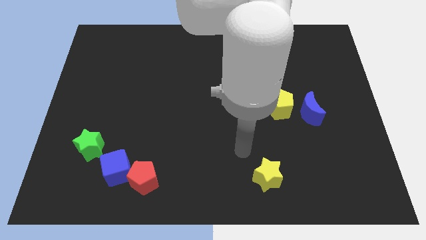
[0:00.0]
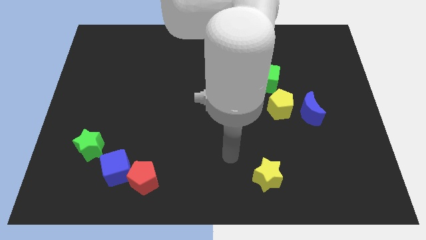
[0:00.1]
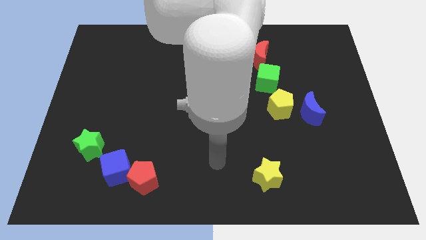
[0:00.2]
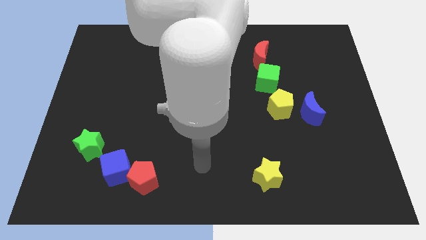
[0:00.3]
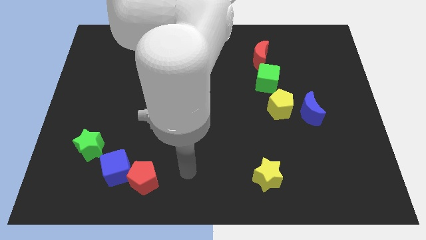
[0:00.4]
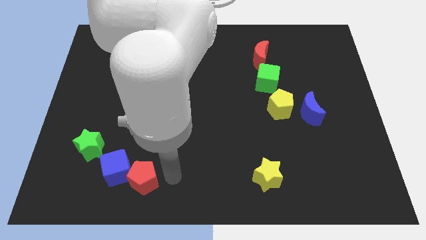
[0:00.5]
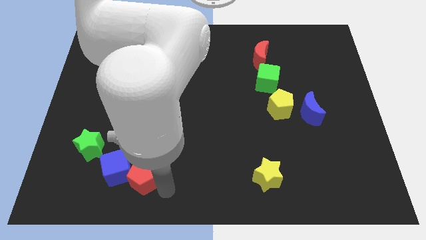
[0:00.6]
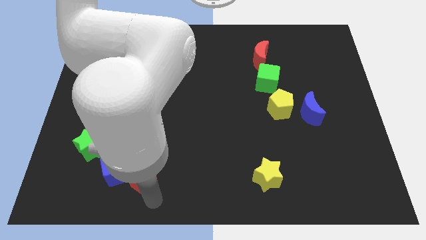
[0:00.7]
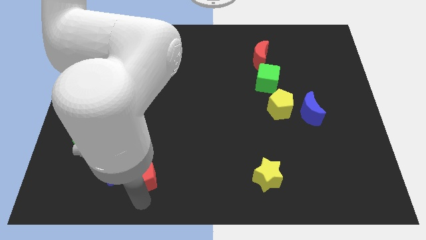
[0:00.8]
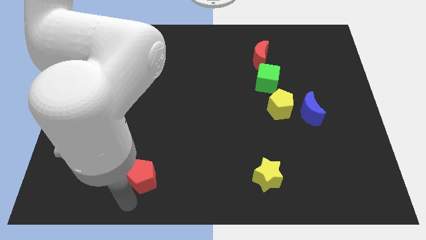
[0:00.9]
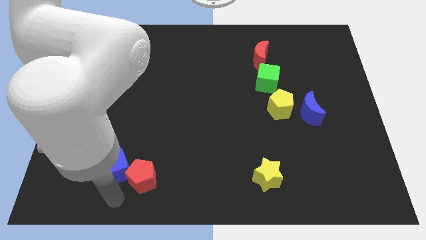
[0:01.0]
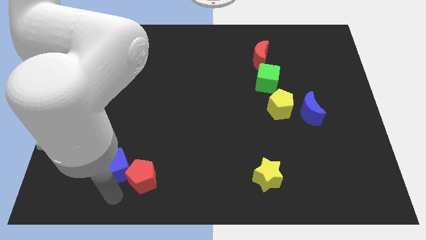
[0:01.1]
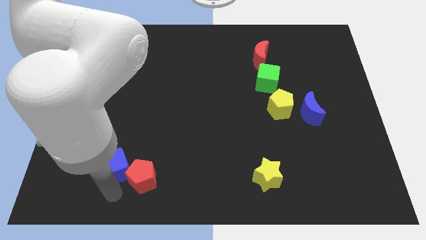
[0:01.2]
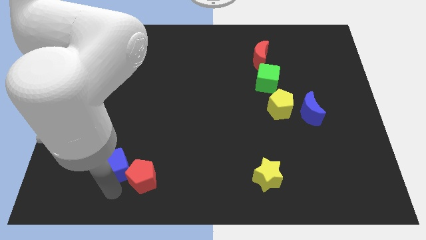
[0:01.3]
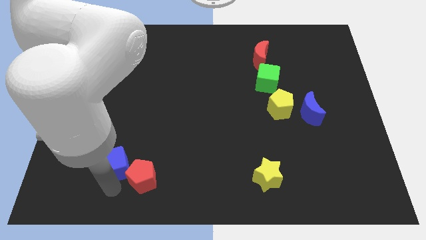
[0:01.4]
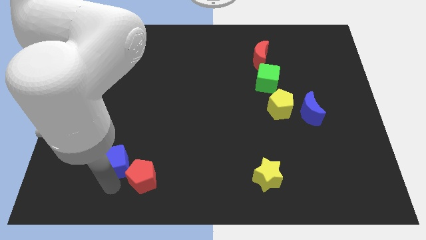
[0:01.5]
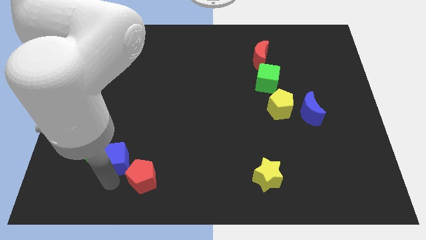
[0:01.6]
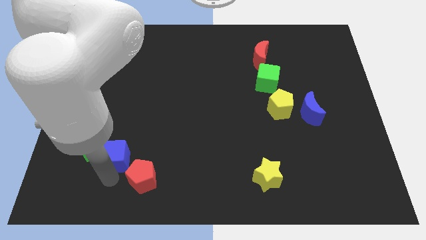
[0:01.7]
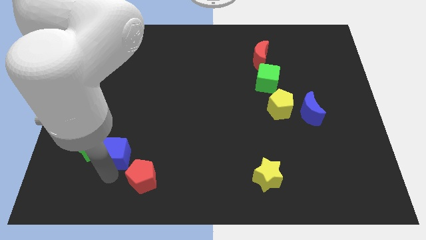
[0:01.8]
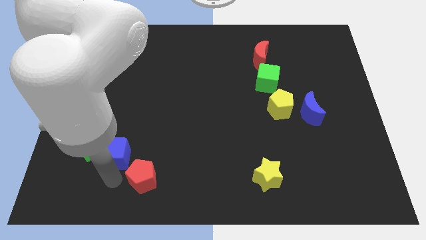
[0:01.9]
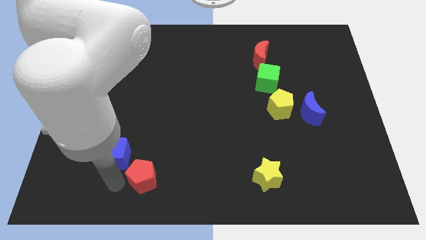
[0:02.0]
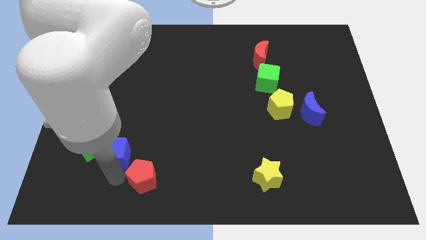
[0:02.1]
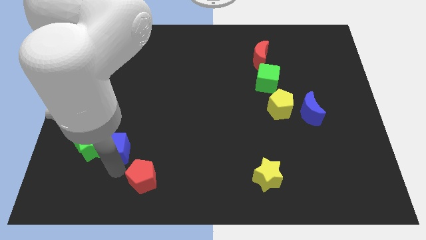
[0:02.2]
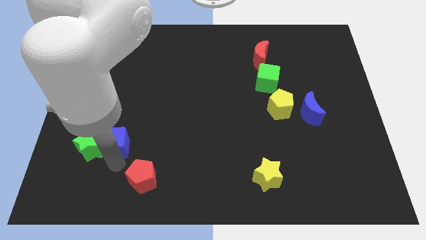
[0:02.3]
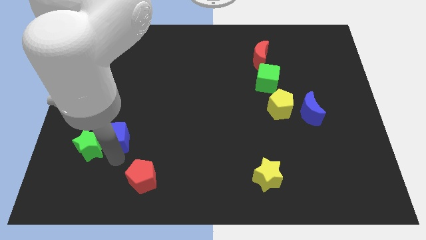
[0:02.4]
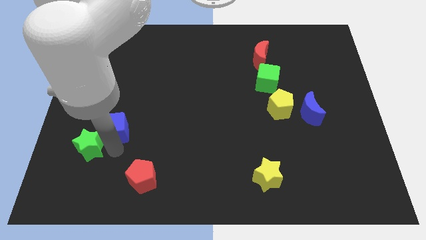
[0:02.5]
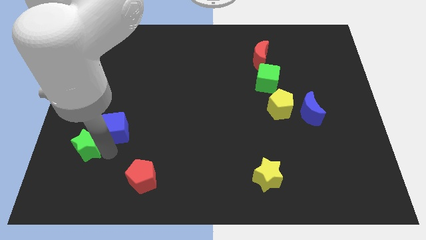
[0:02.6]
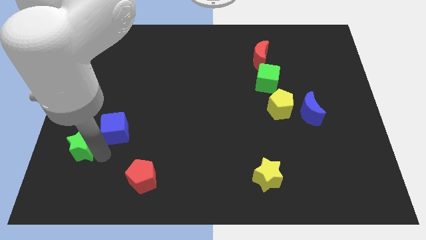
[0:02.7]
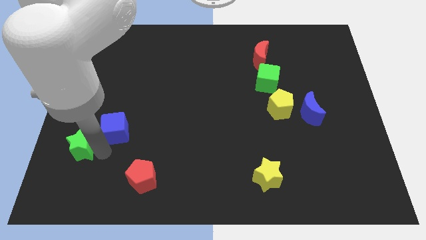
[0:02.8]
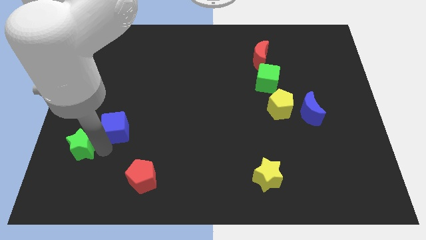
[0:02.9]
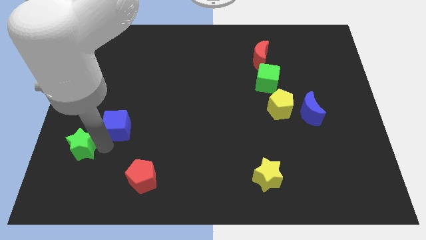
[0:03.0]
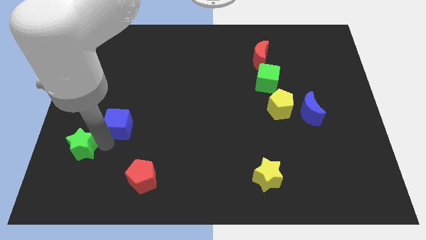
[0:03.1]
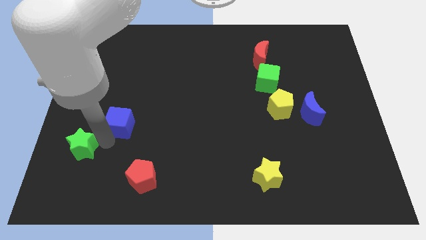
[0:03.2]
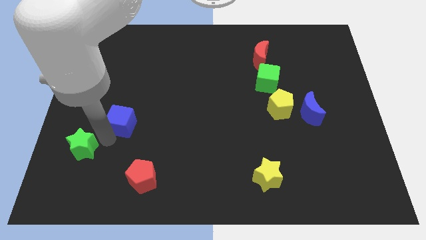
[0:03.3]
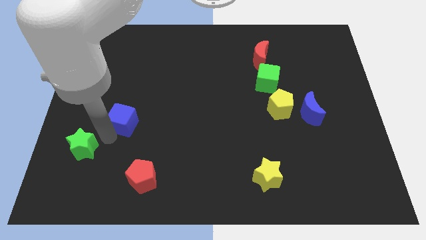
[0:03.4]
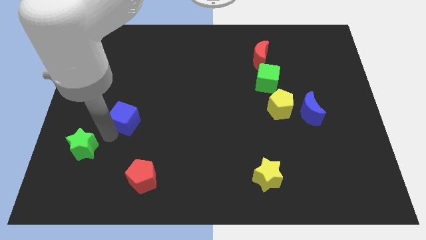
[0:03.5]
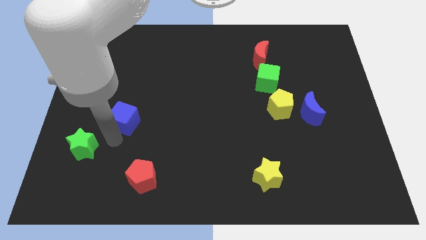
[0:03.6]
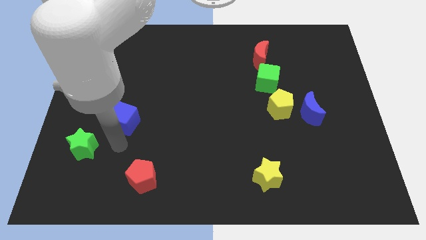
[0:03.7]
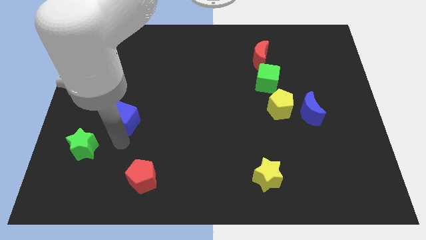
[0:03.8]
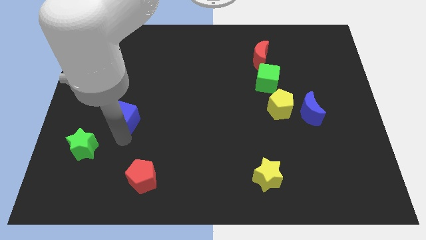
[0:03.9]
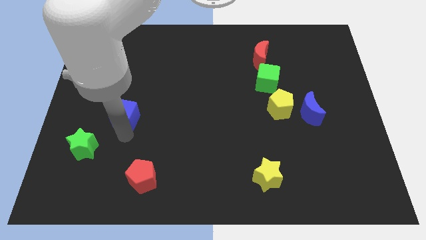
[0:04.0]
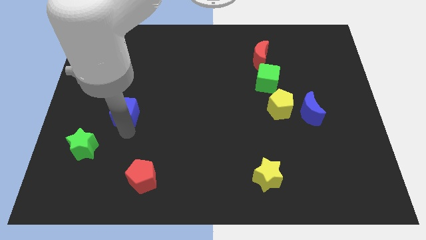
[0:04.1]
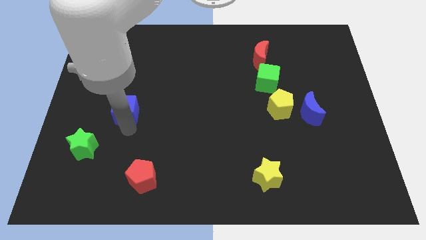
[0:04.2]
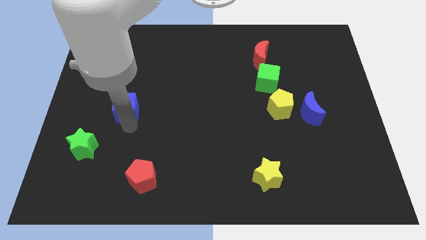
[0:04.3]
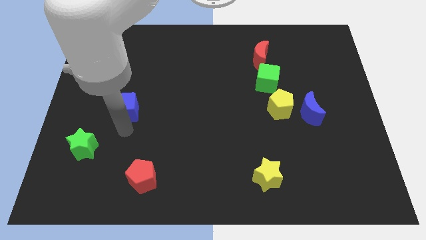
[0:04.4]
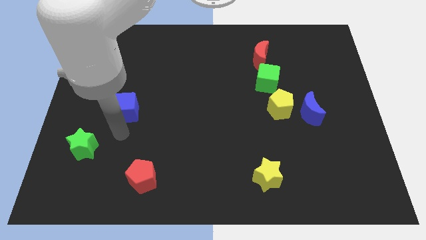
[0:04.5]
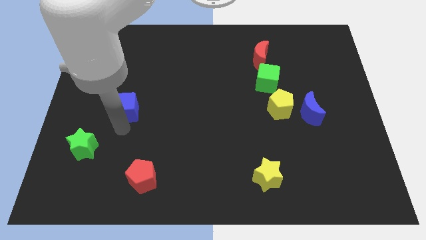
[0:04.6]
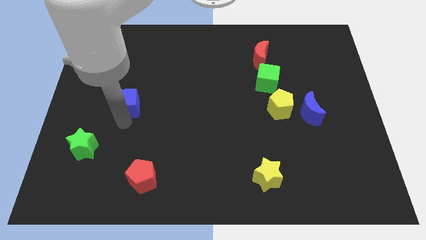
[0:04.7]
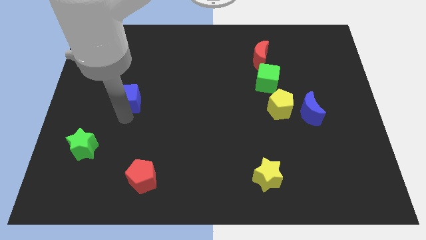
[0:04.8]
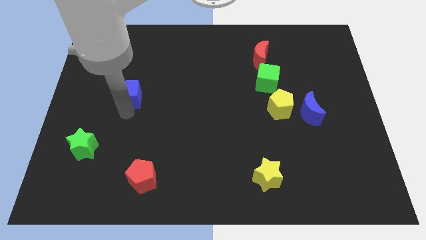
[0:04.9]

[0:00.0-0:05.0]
push the blue cube up

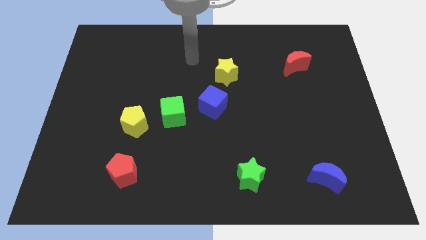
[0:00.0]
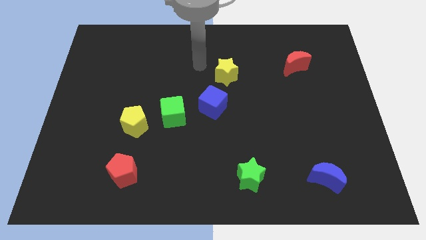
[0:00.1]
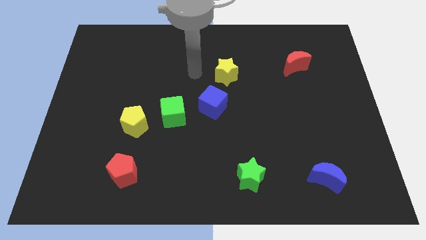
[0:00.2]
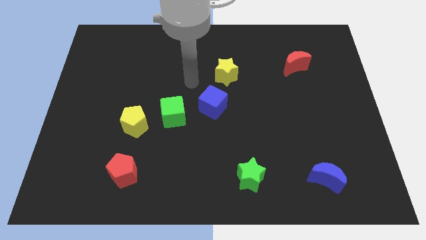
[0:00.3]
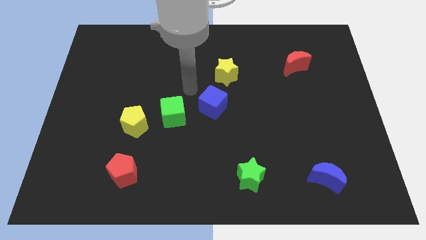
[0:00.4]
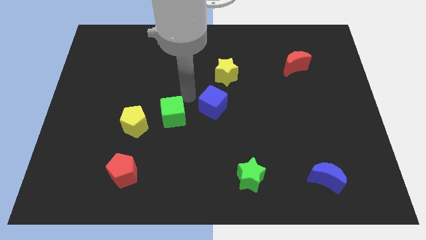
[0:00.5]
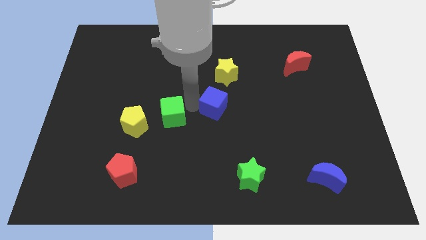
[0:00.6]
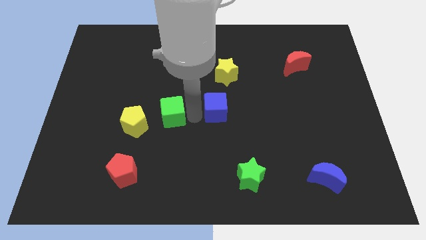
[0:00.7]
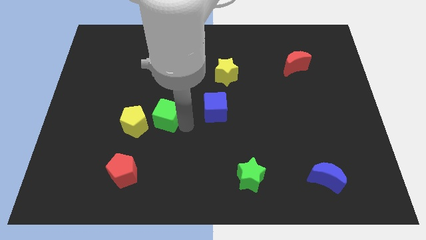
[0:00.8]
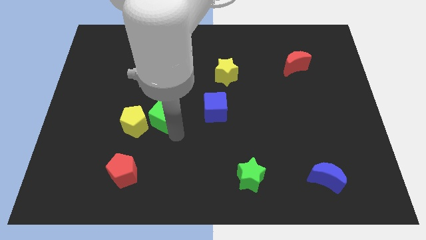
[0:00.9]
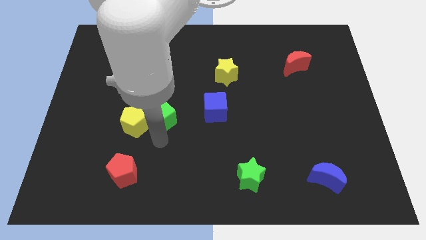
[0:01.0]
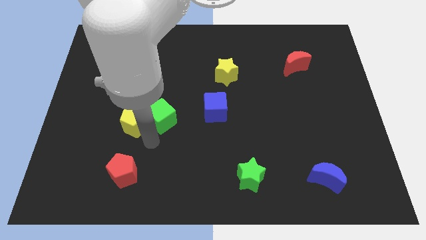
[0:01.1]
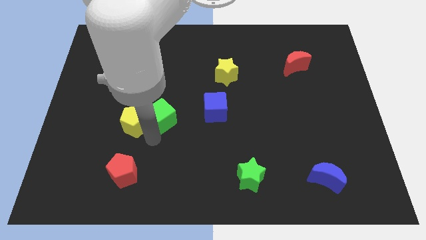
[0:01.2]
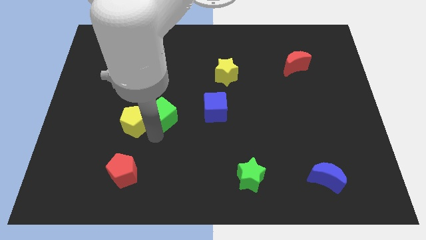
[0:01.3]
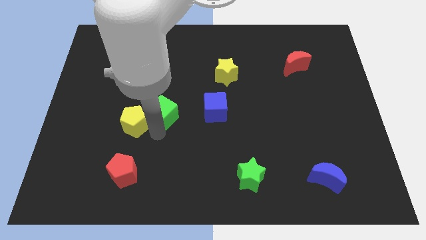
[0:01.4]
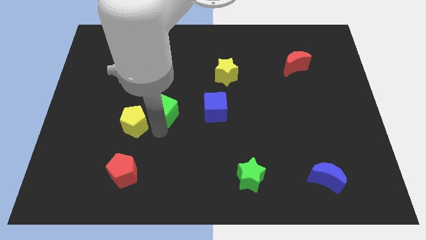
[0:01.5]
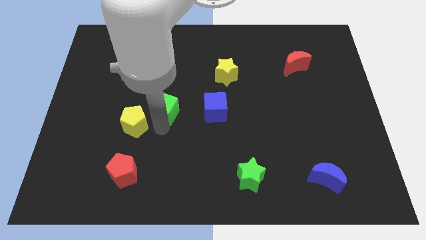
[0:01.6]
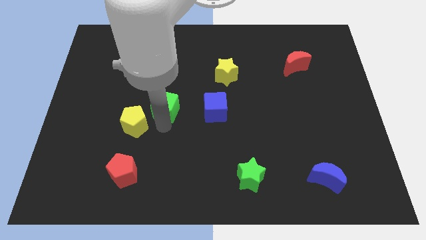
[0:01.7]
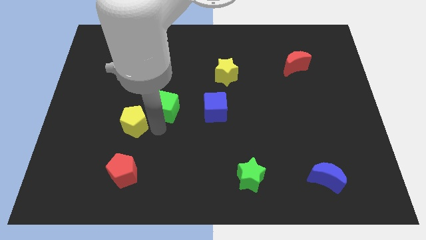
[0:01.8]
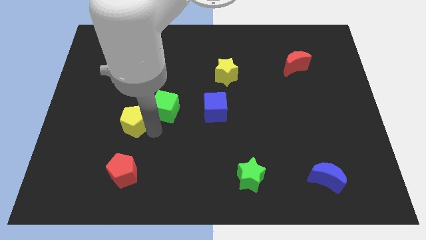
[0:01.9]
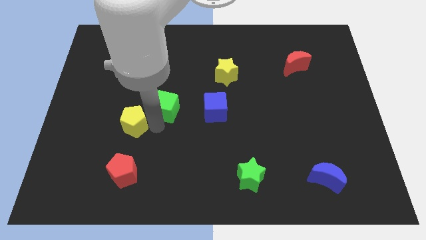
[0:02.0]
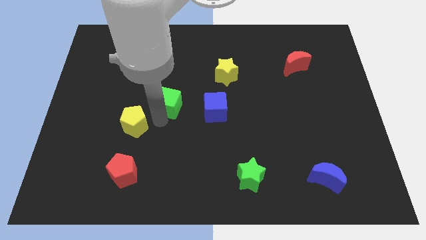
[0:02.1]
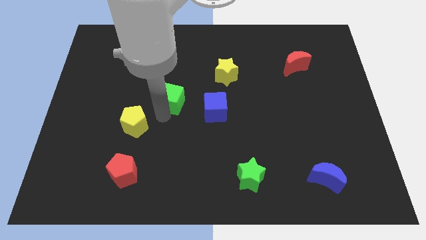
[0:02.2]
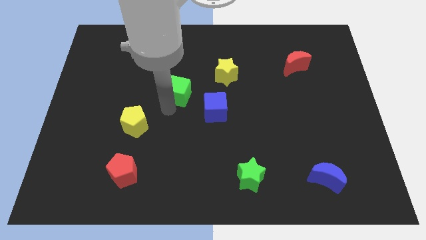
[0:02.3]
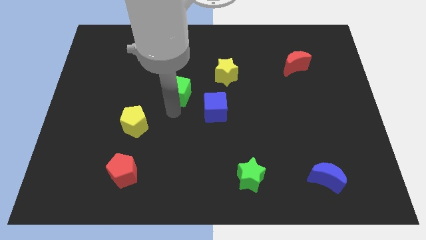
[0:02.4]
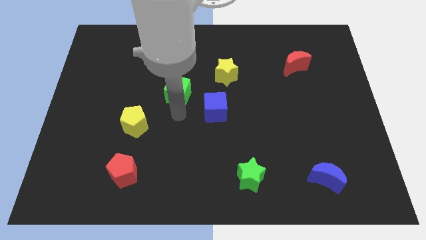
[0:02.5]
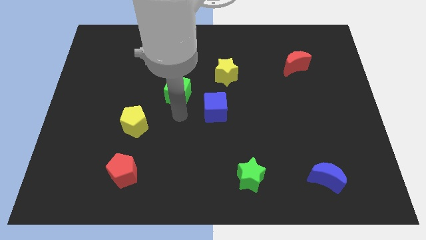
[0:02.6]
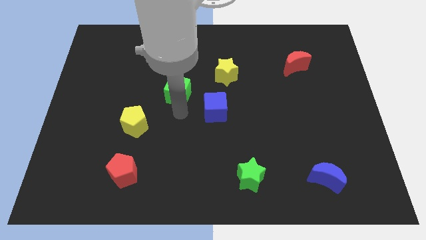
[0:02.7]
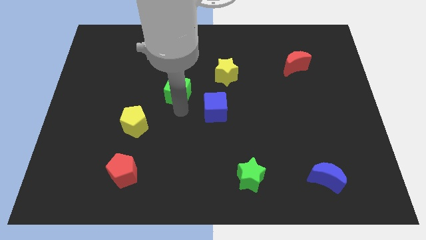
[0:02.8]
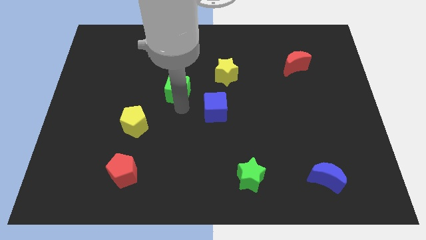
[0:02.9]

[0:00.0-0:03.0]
slightly slide the green cube up

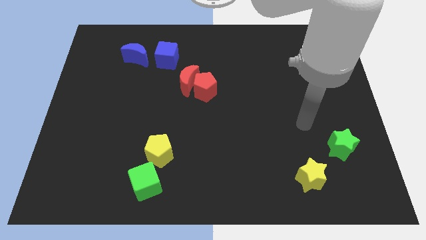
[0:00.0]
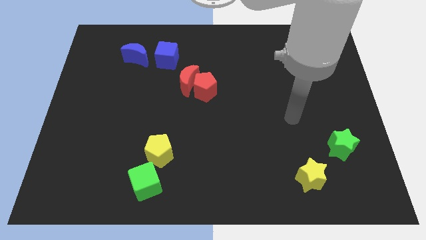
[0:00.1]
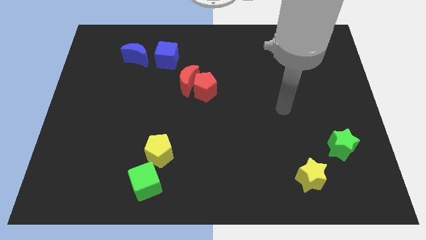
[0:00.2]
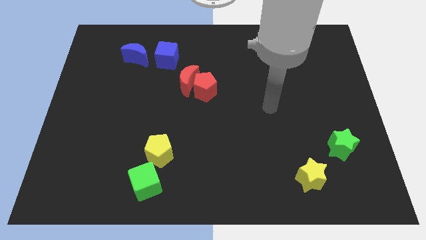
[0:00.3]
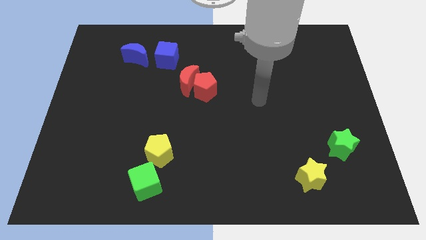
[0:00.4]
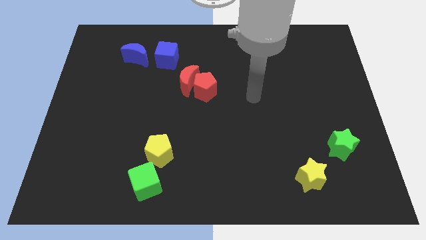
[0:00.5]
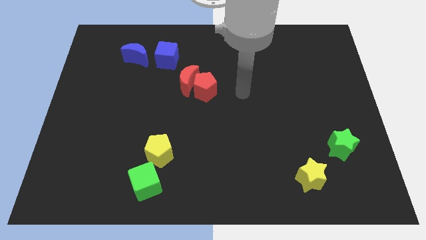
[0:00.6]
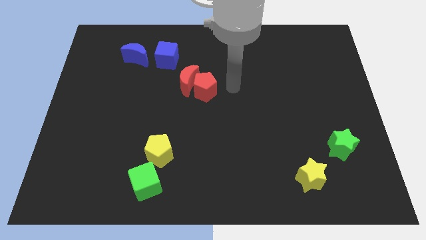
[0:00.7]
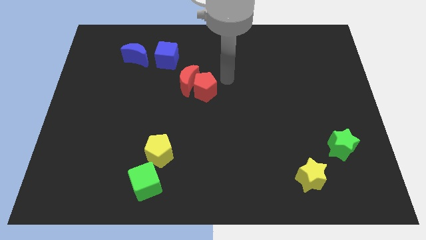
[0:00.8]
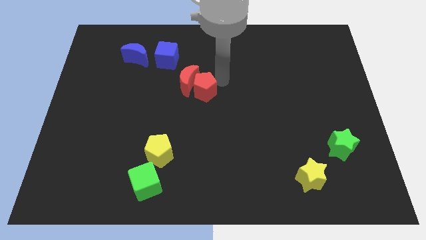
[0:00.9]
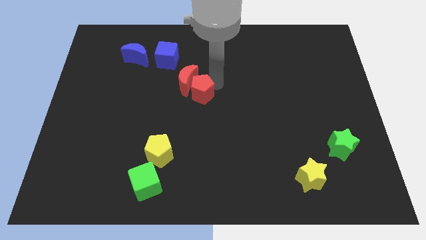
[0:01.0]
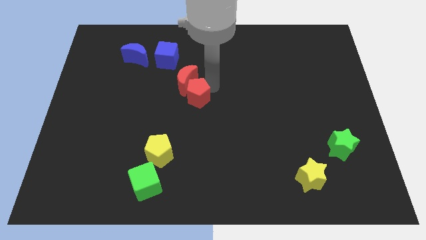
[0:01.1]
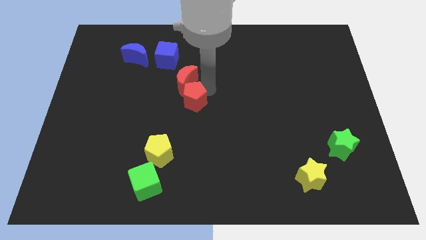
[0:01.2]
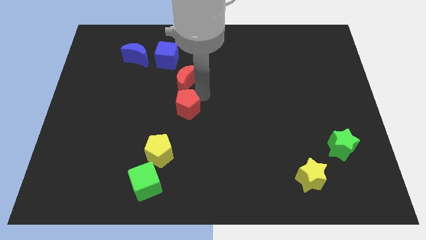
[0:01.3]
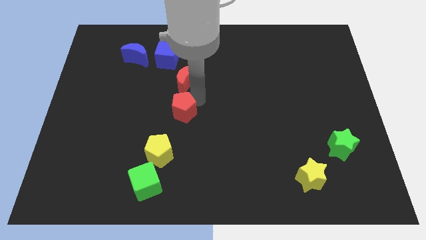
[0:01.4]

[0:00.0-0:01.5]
move the red pentagon downwards and left diagonally somewhat
